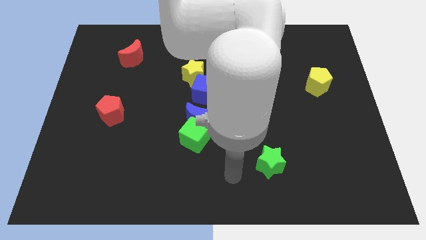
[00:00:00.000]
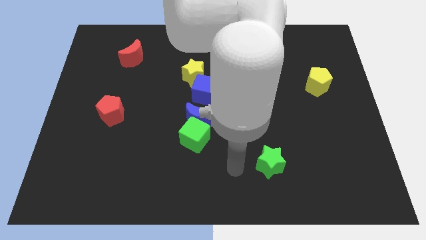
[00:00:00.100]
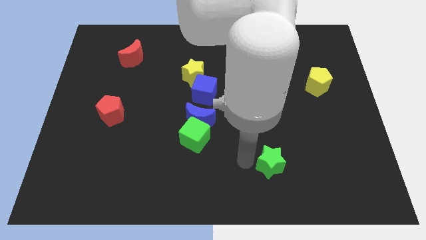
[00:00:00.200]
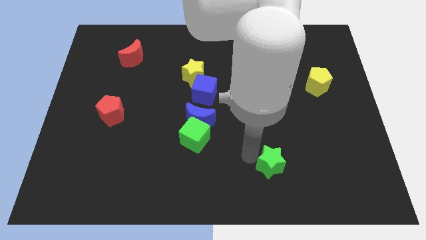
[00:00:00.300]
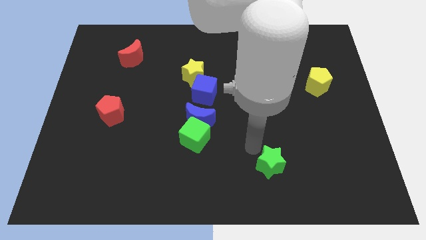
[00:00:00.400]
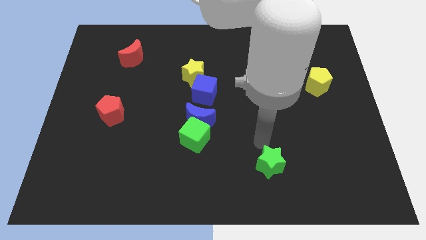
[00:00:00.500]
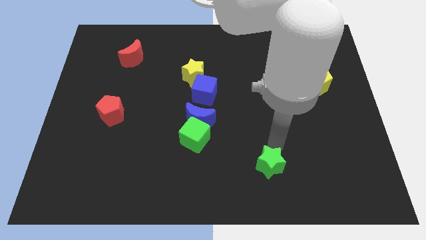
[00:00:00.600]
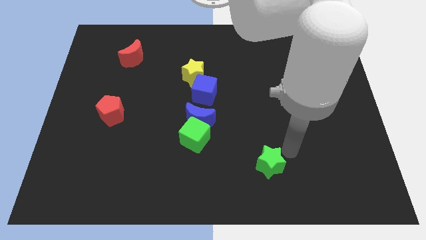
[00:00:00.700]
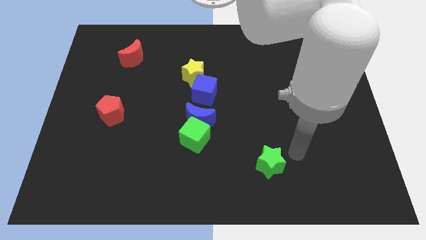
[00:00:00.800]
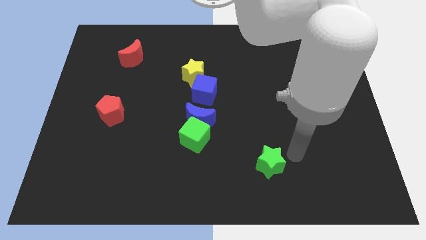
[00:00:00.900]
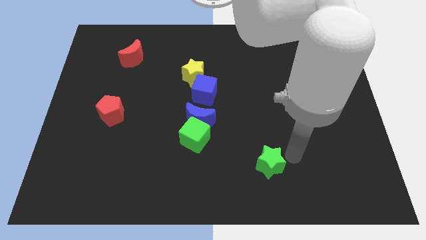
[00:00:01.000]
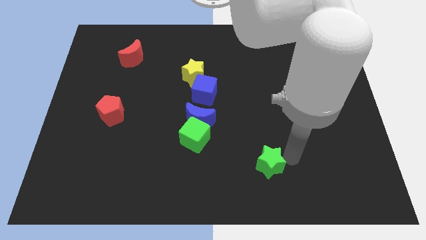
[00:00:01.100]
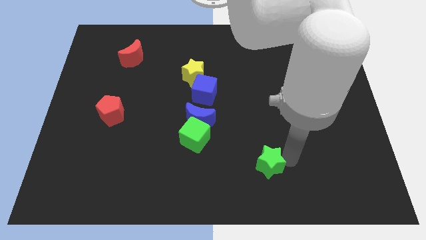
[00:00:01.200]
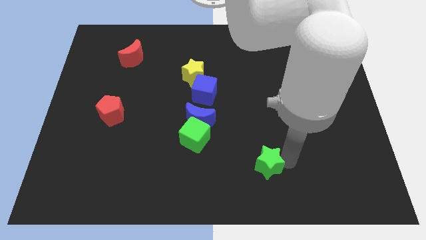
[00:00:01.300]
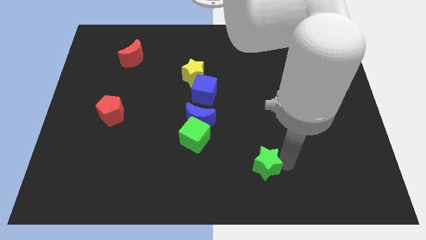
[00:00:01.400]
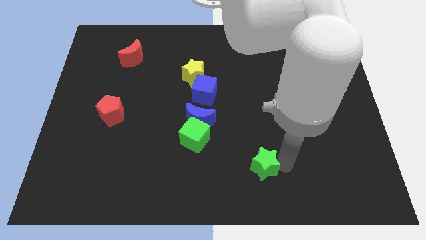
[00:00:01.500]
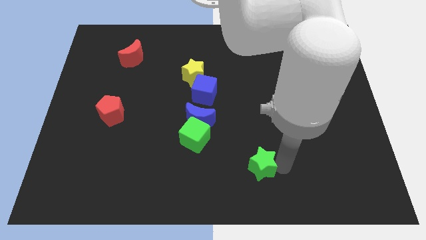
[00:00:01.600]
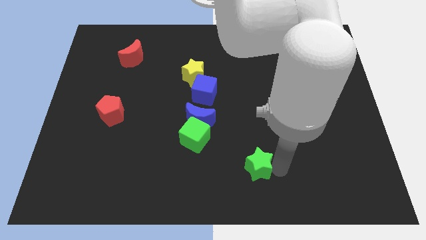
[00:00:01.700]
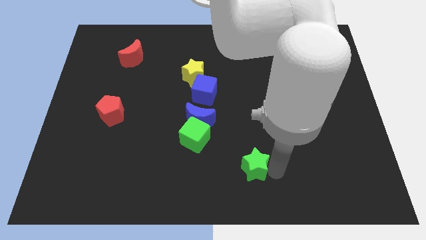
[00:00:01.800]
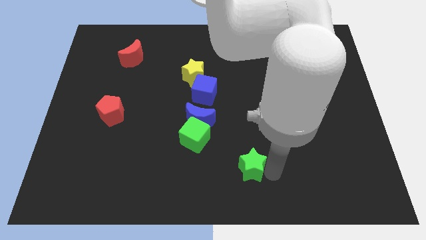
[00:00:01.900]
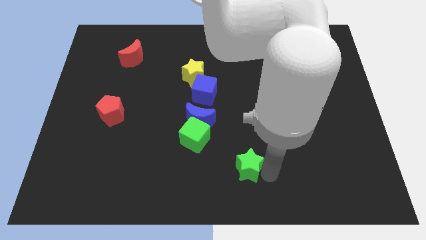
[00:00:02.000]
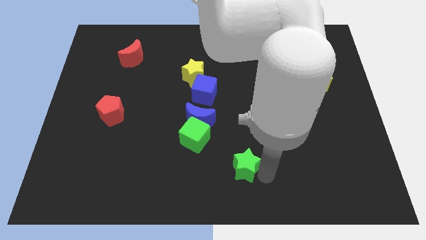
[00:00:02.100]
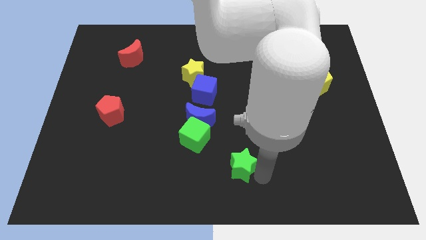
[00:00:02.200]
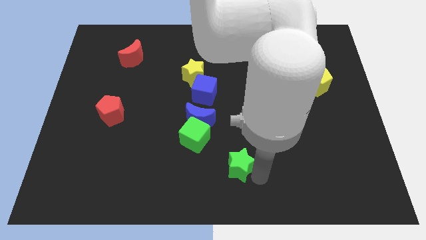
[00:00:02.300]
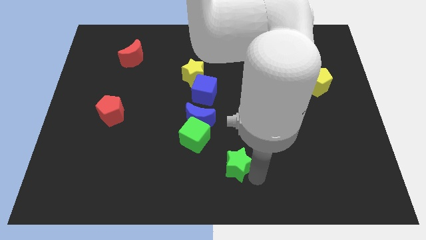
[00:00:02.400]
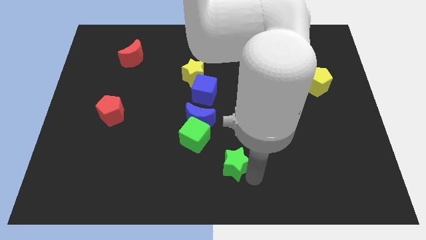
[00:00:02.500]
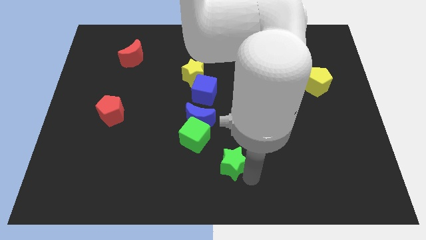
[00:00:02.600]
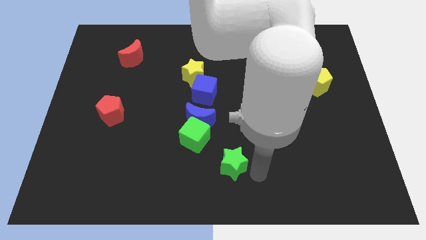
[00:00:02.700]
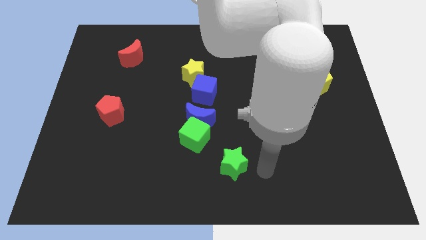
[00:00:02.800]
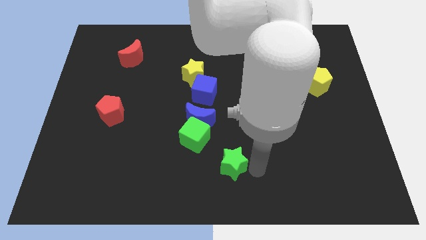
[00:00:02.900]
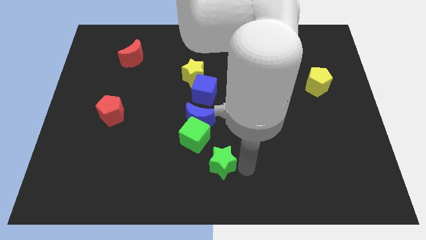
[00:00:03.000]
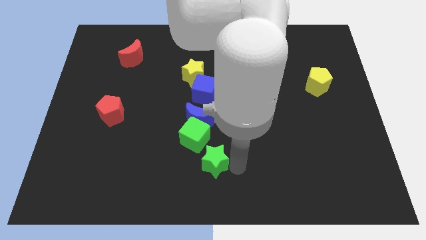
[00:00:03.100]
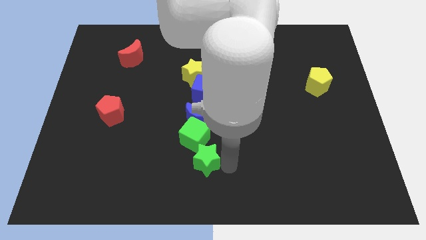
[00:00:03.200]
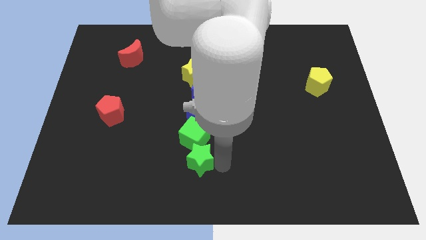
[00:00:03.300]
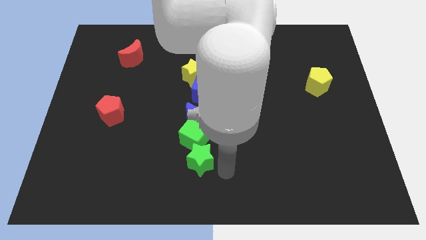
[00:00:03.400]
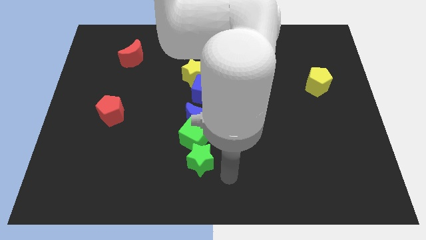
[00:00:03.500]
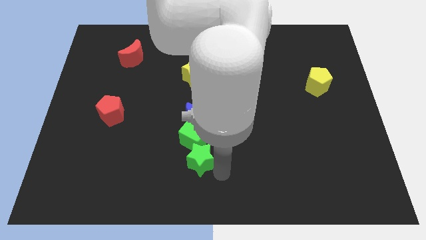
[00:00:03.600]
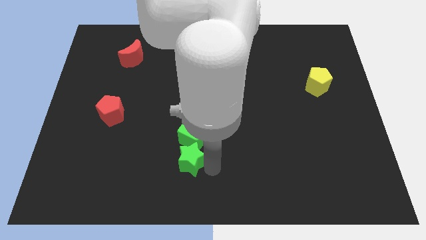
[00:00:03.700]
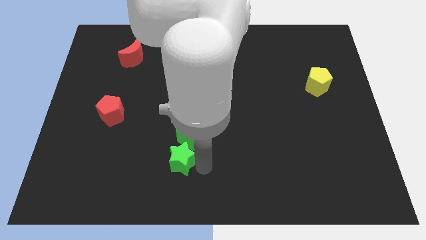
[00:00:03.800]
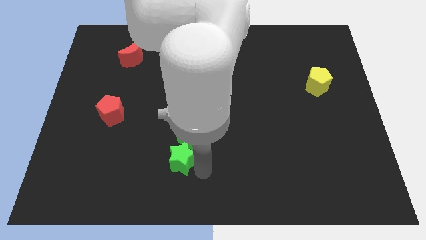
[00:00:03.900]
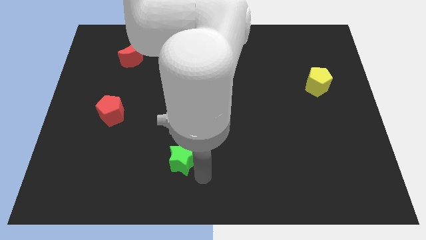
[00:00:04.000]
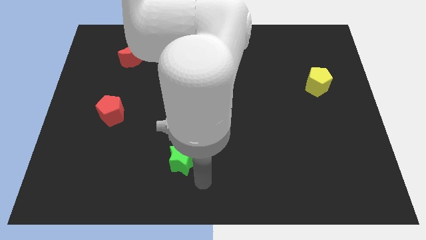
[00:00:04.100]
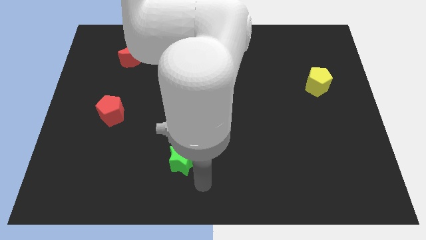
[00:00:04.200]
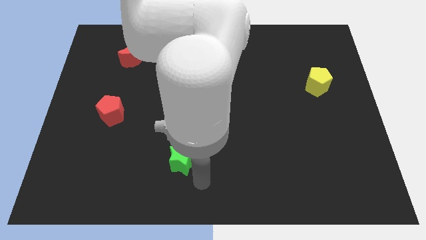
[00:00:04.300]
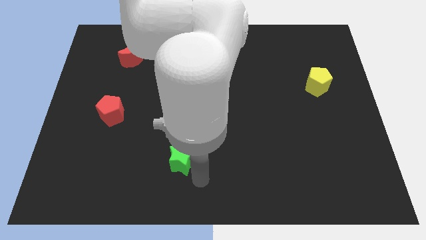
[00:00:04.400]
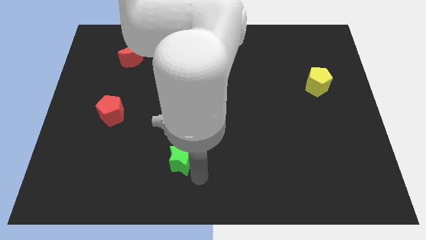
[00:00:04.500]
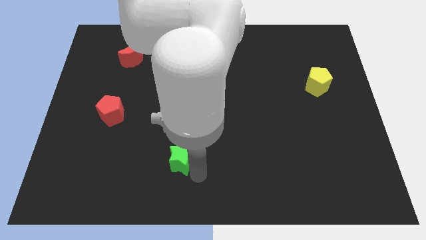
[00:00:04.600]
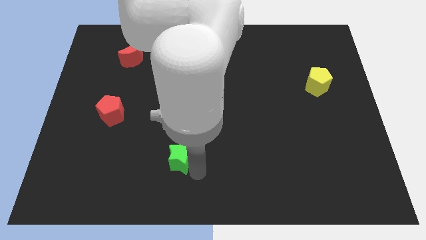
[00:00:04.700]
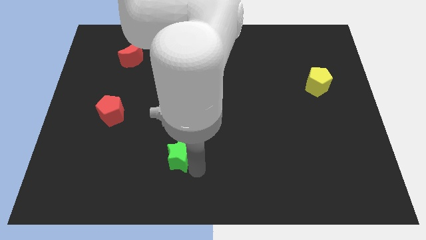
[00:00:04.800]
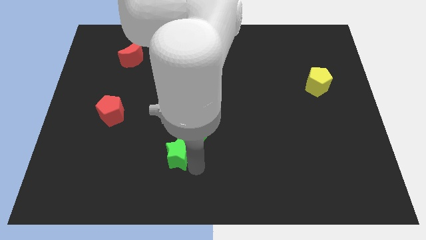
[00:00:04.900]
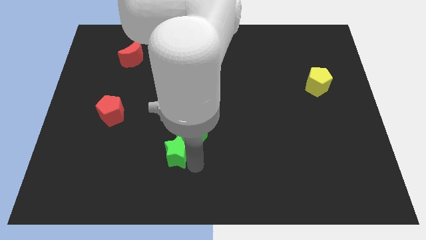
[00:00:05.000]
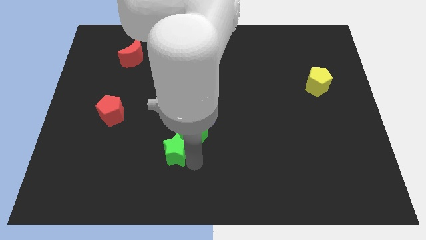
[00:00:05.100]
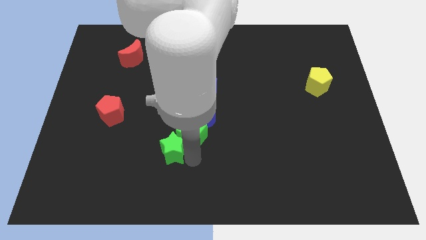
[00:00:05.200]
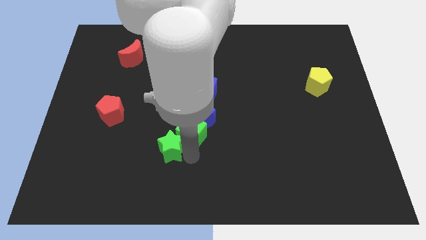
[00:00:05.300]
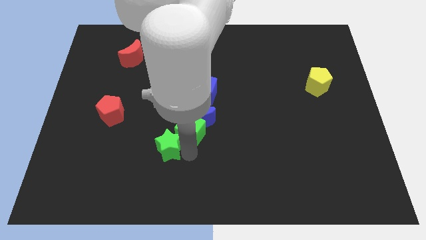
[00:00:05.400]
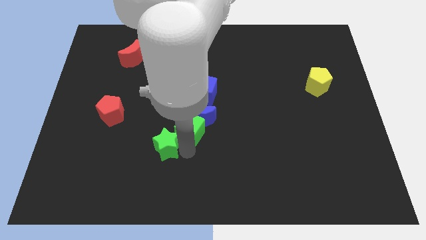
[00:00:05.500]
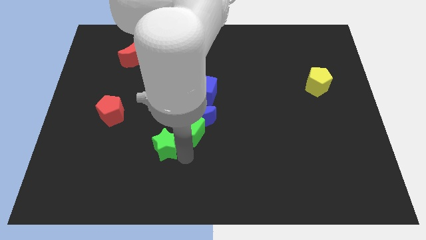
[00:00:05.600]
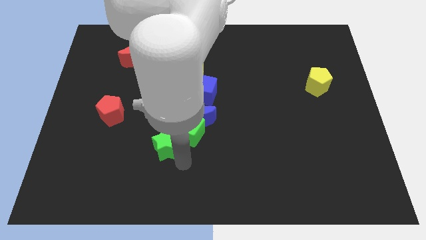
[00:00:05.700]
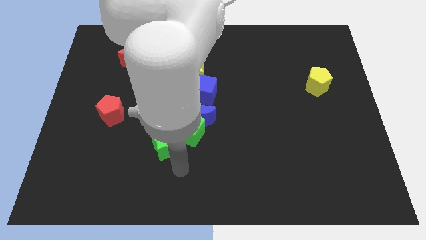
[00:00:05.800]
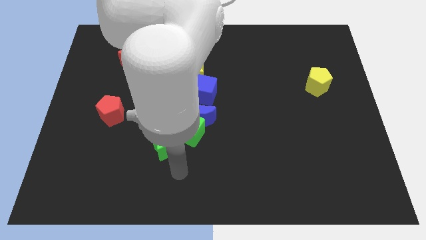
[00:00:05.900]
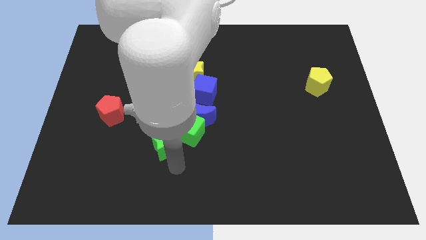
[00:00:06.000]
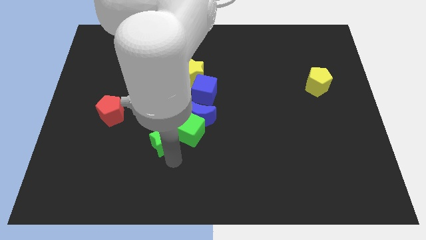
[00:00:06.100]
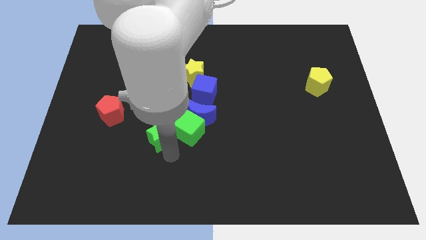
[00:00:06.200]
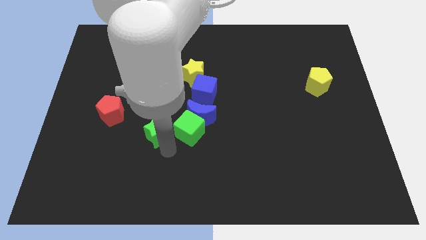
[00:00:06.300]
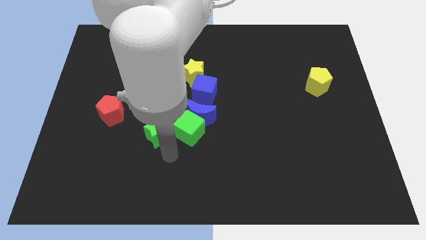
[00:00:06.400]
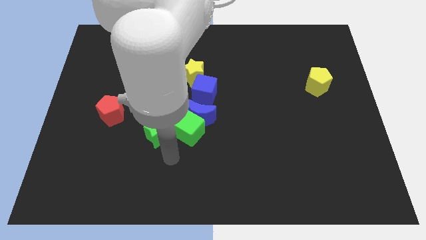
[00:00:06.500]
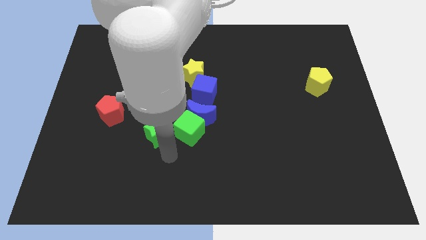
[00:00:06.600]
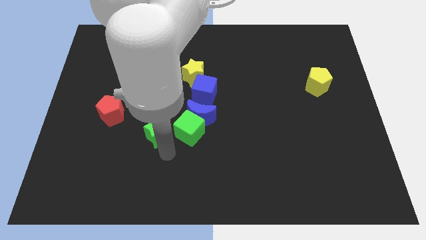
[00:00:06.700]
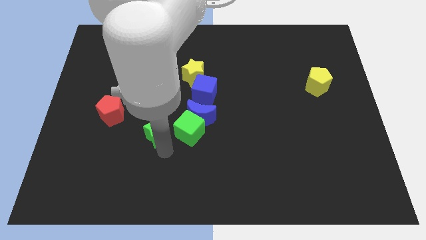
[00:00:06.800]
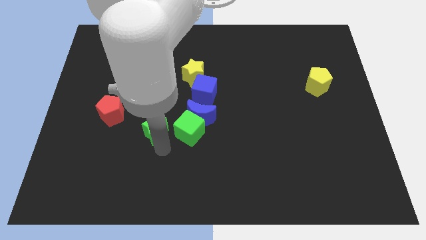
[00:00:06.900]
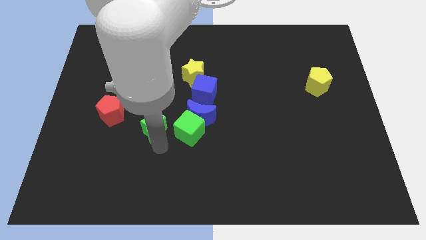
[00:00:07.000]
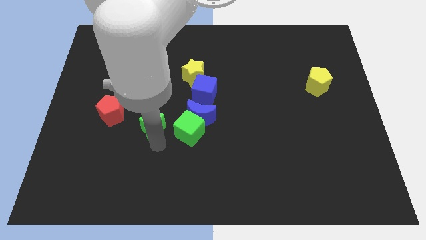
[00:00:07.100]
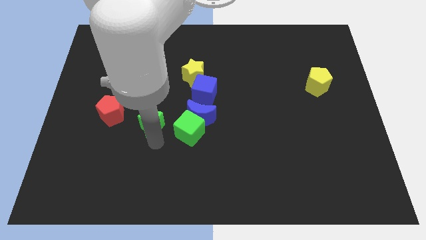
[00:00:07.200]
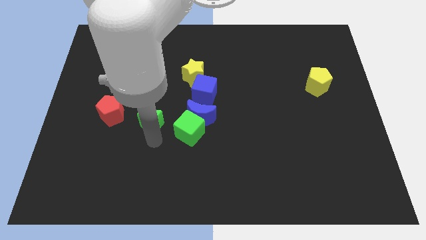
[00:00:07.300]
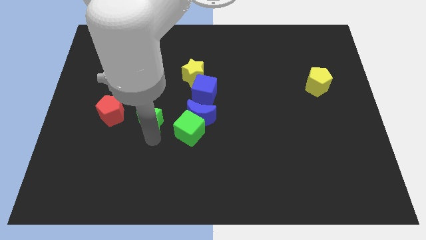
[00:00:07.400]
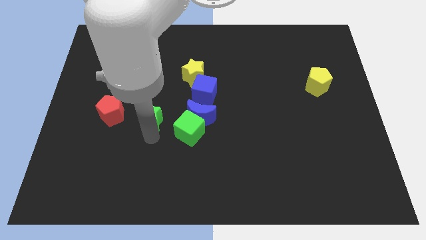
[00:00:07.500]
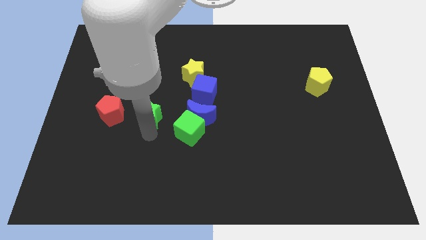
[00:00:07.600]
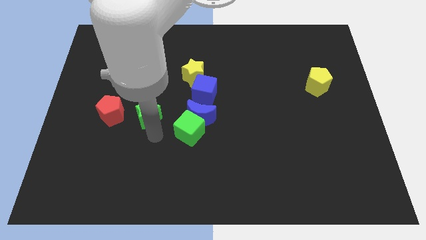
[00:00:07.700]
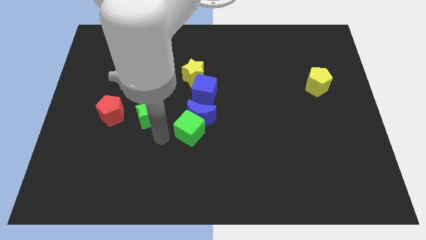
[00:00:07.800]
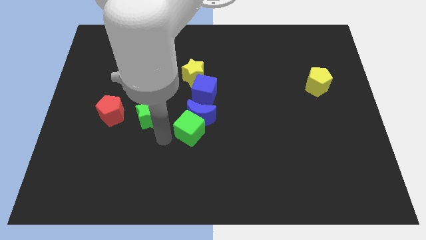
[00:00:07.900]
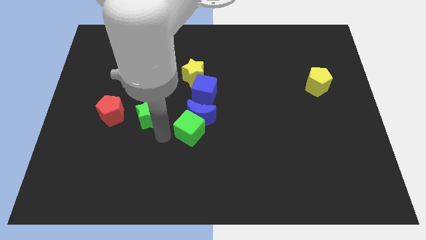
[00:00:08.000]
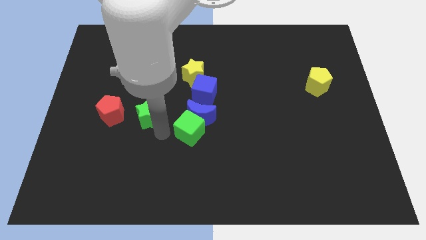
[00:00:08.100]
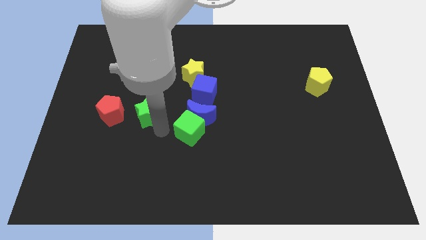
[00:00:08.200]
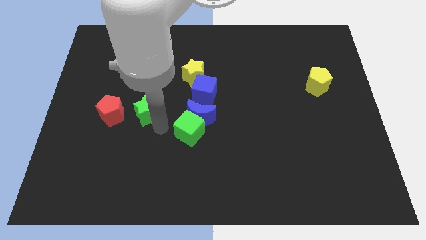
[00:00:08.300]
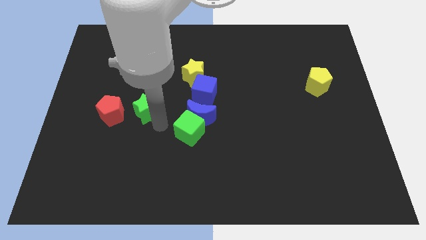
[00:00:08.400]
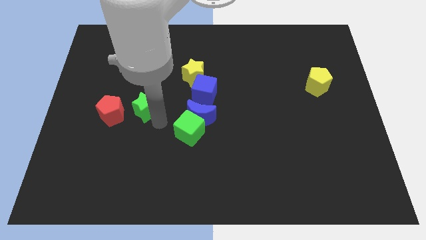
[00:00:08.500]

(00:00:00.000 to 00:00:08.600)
put the green star diagonally up and to the right of the red pentagon
